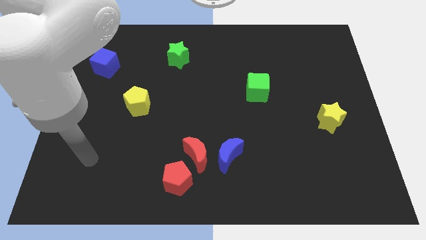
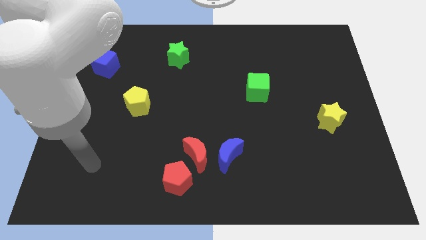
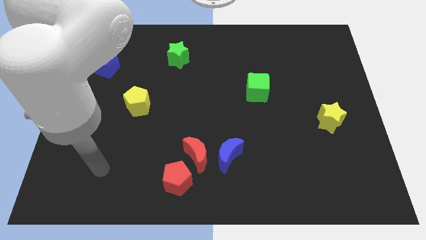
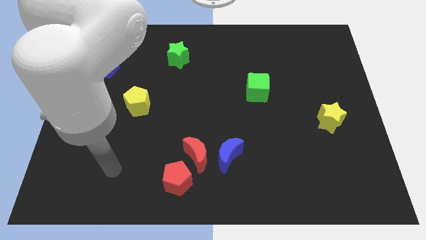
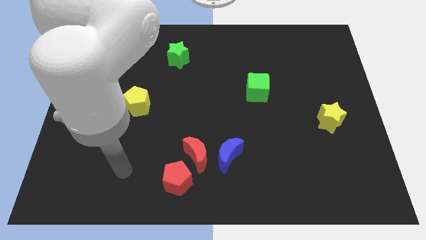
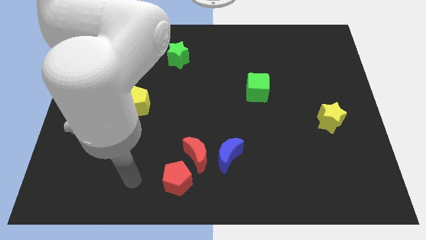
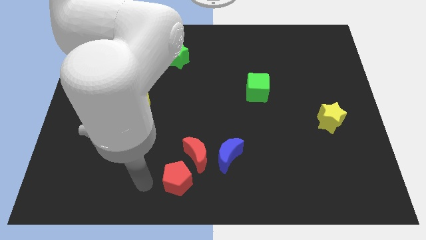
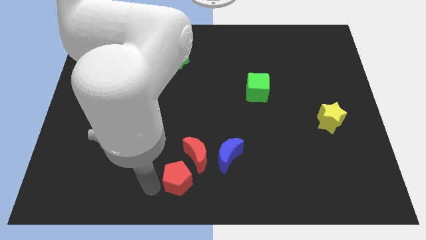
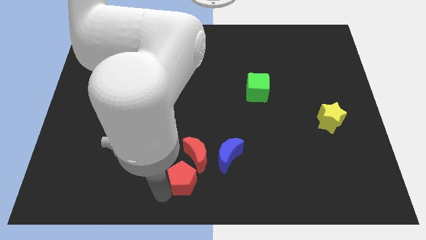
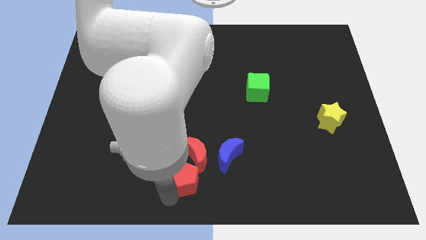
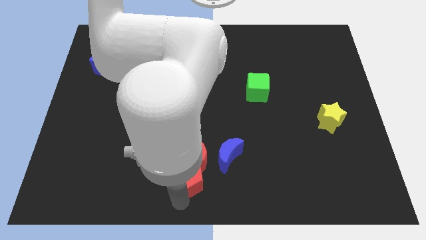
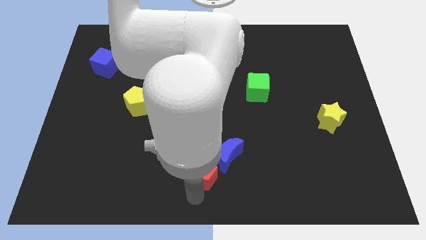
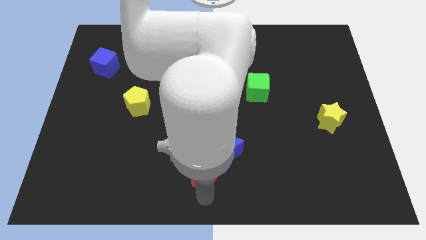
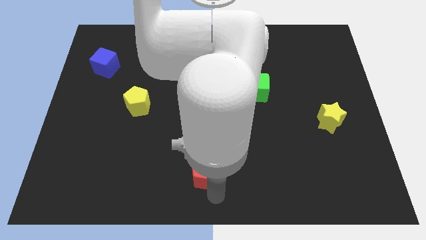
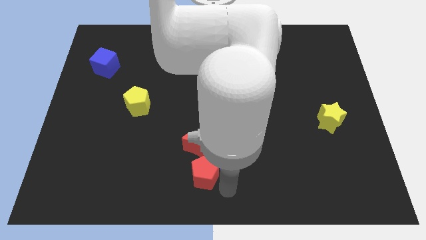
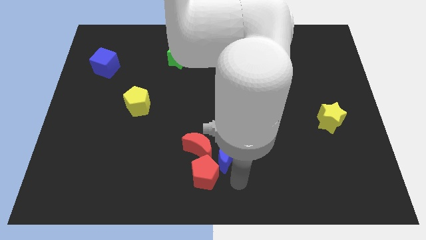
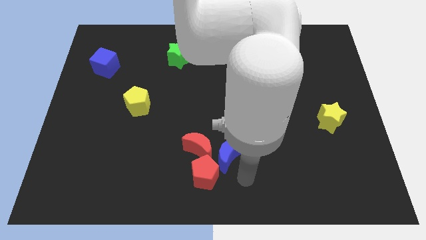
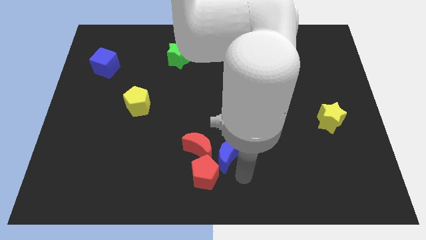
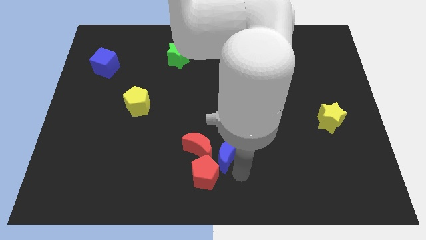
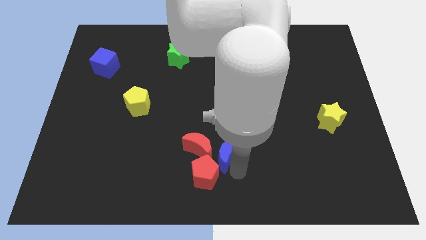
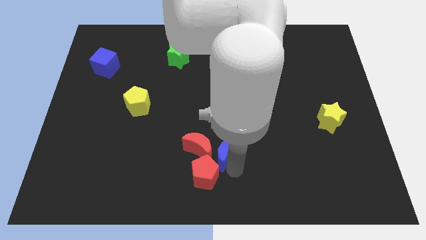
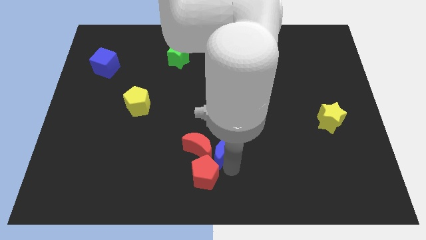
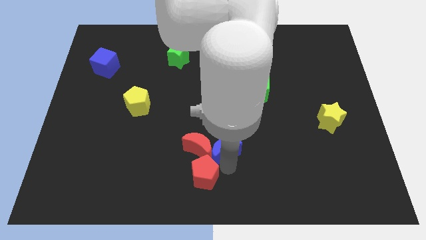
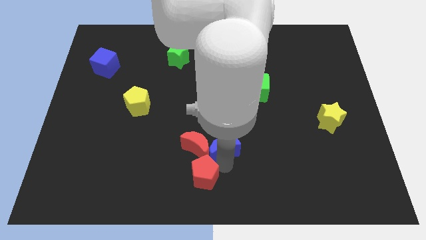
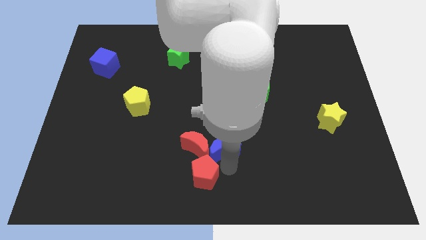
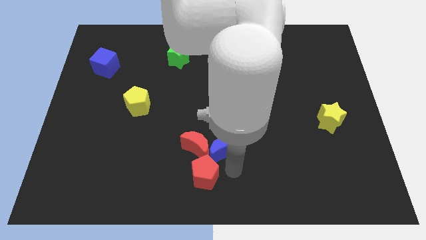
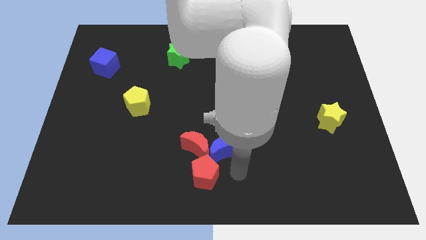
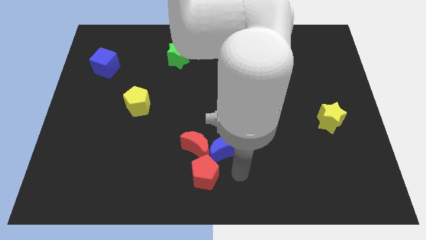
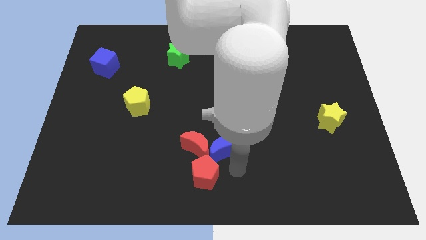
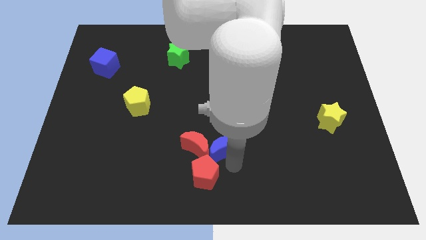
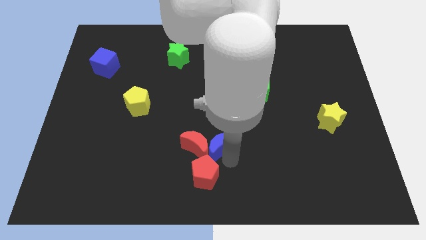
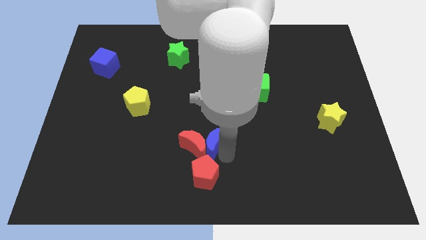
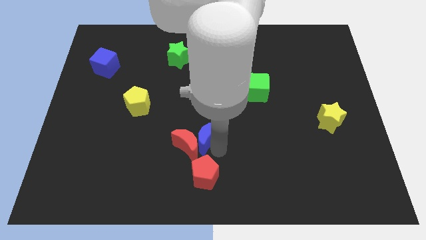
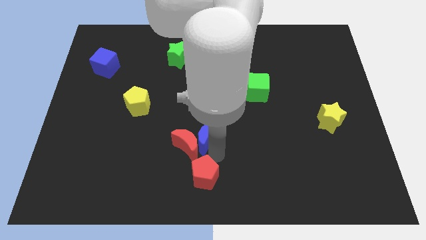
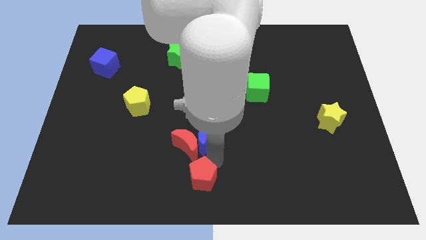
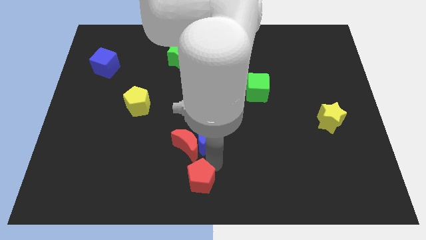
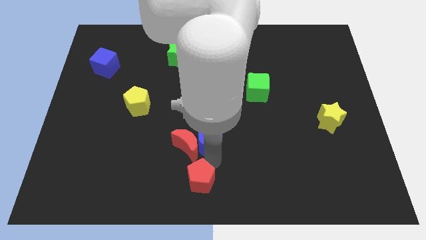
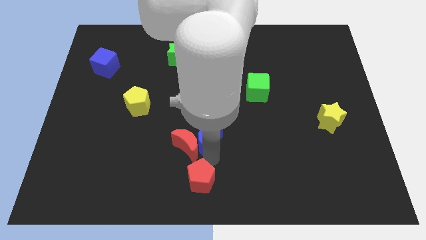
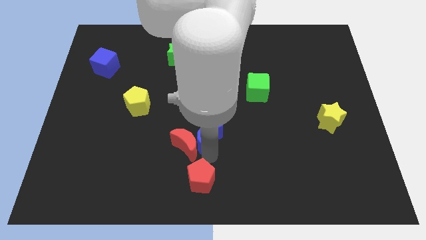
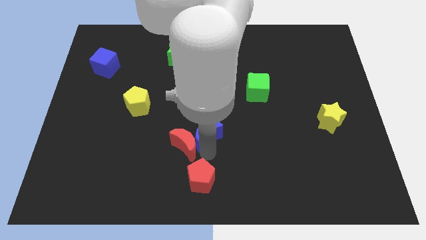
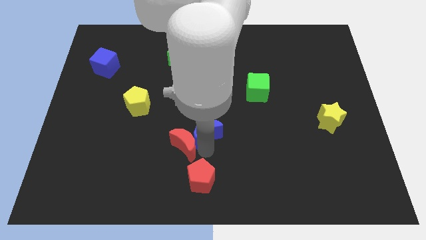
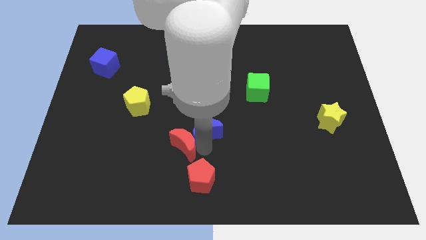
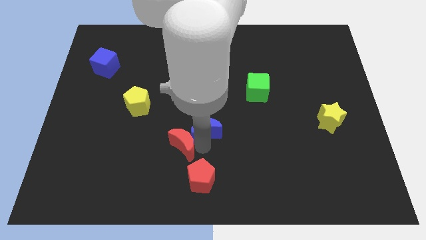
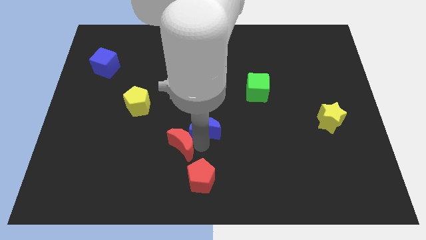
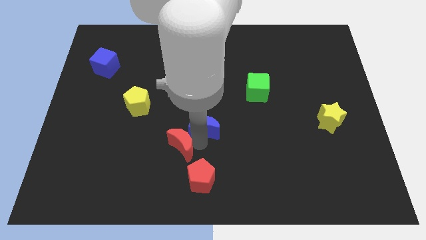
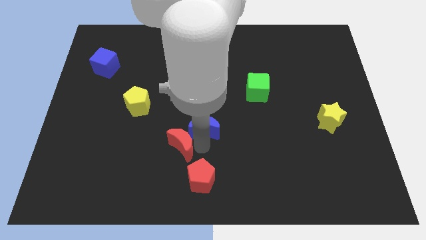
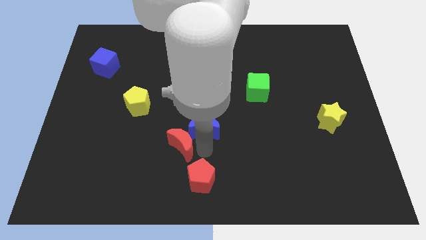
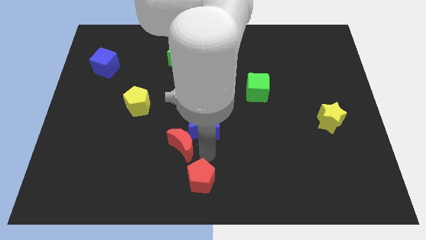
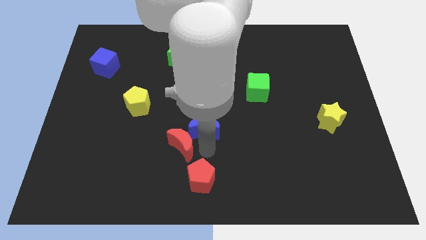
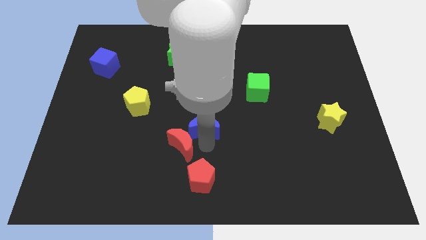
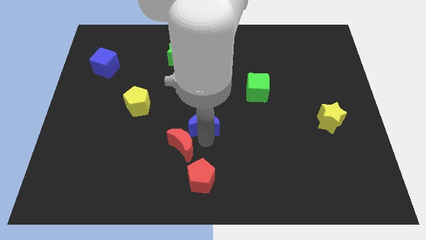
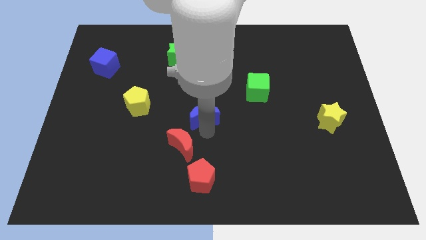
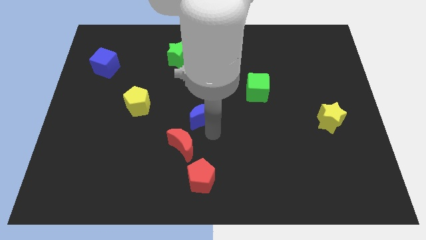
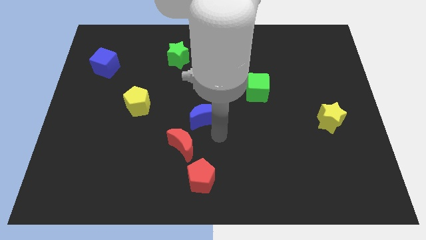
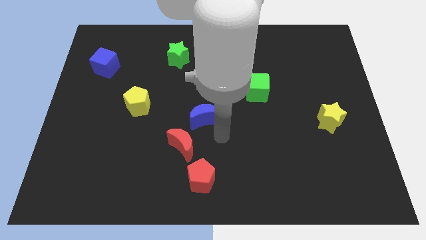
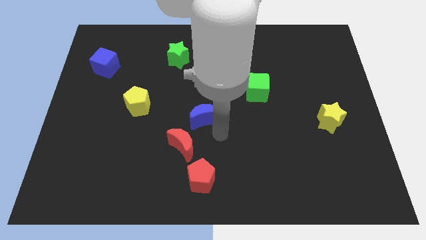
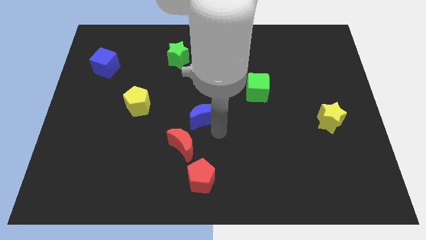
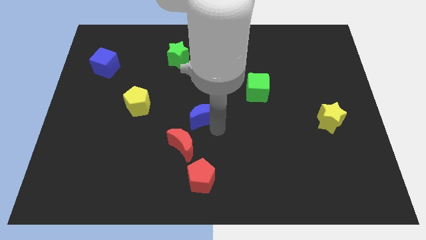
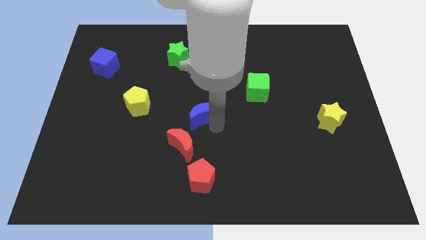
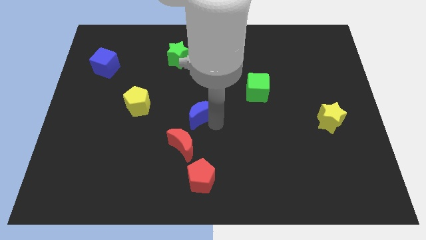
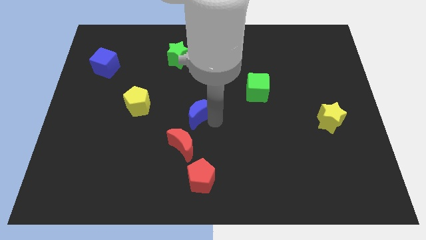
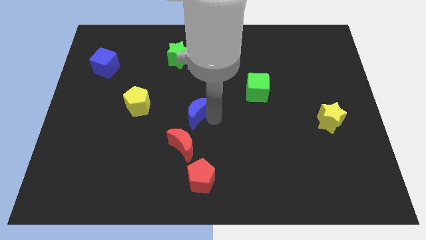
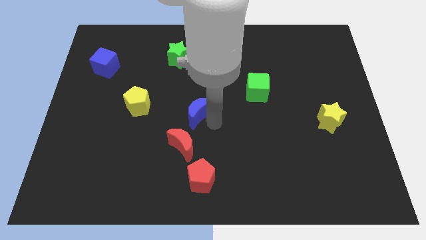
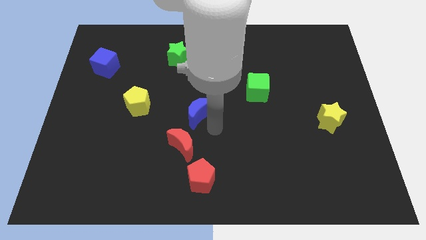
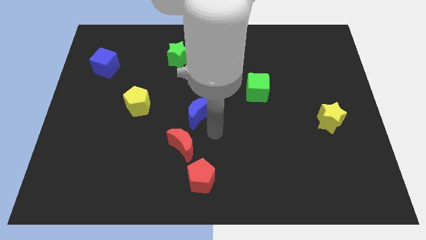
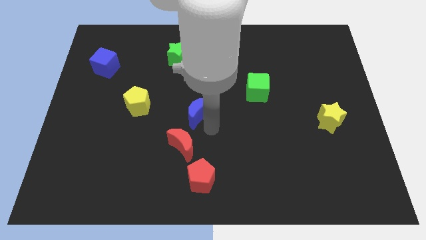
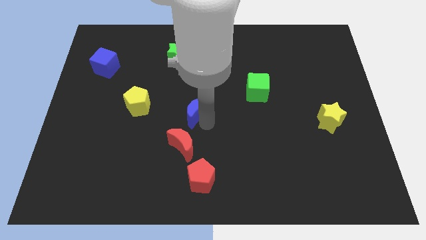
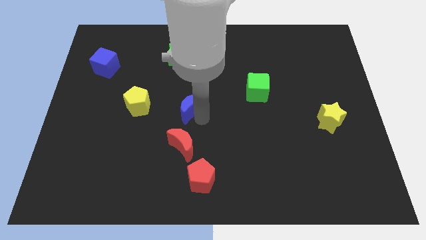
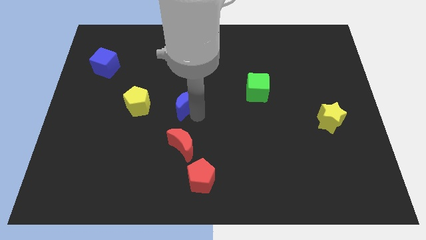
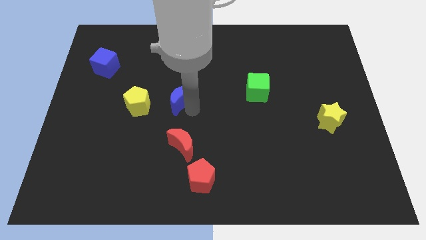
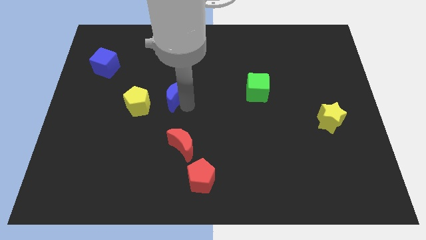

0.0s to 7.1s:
push the blue moon diagonally up and to the right of the yellow pentagon

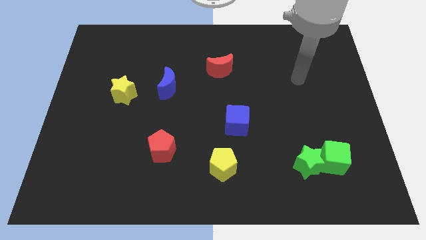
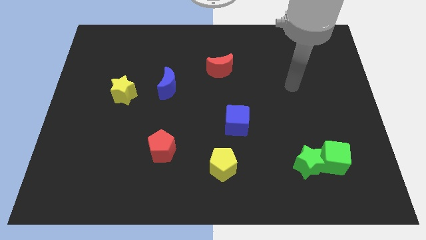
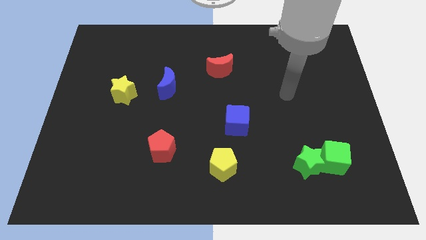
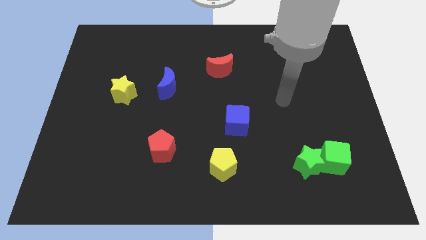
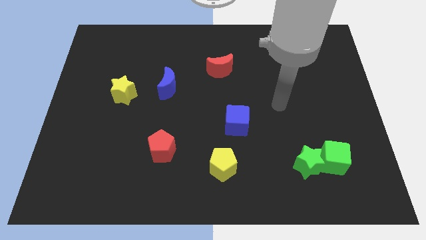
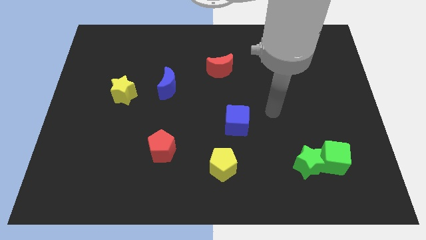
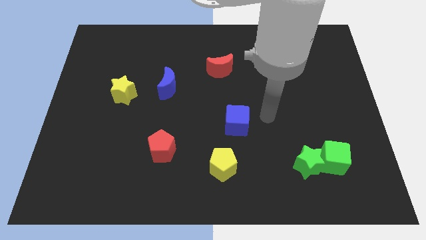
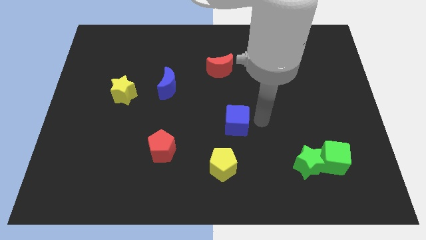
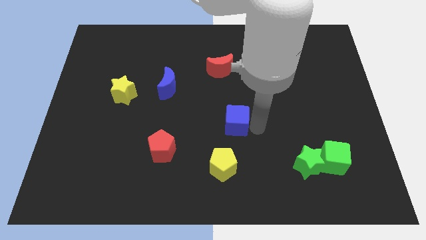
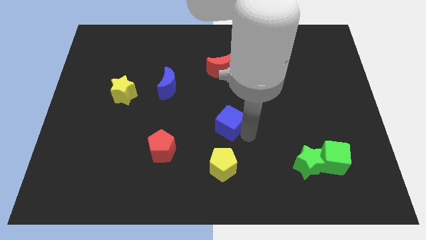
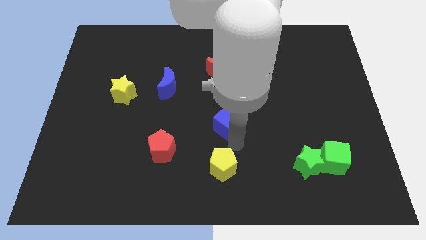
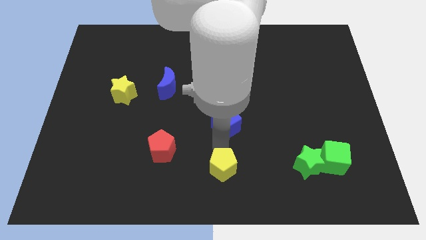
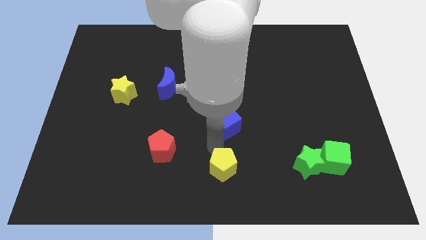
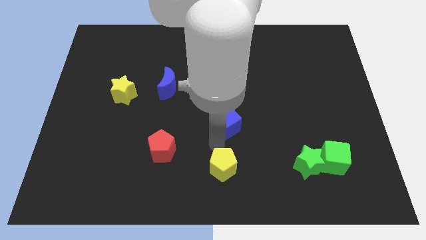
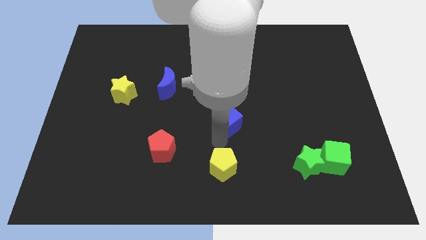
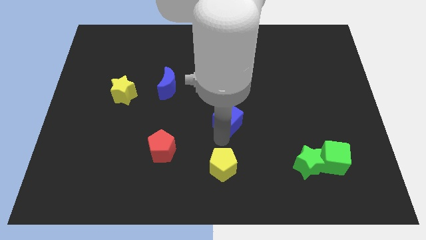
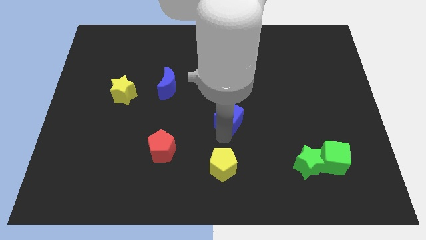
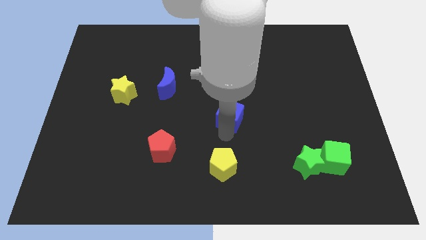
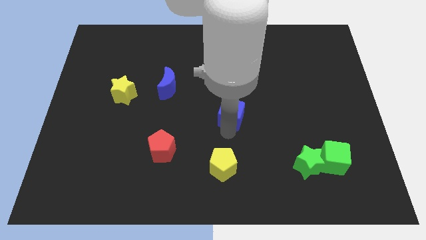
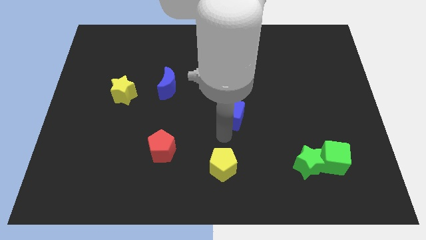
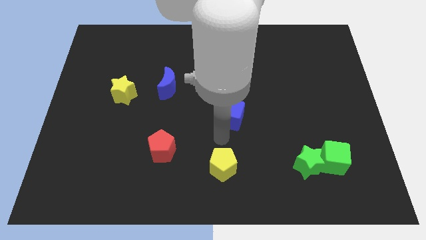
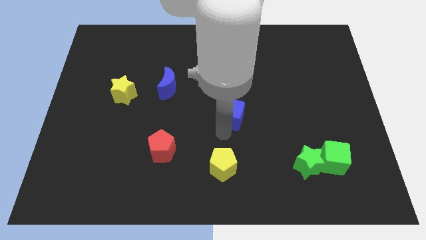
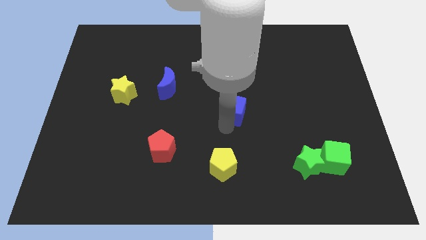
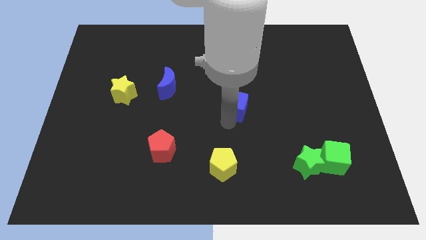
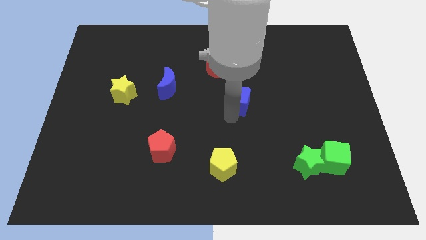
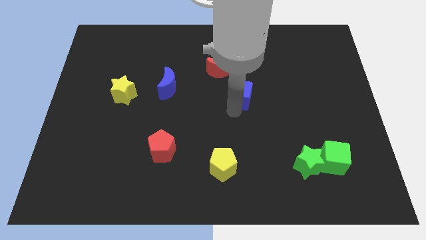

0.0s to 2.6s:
move the blue cube diagonally down and to the right of the red moon
